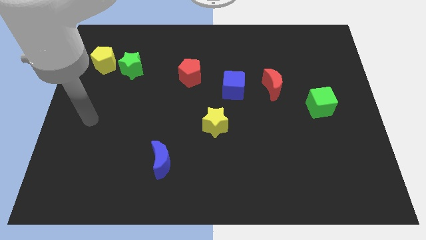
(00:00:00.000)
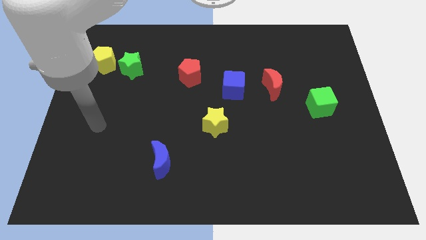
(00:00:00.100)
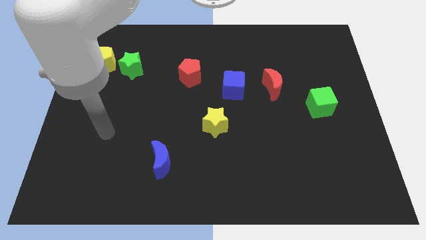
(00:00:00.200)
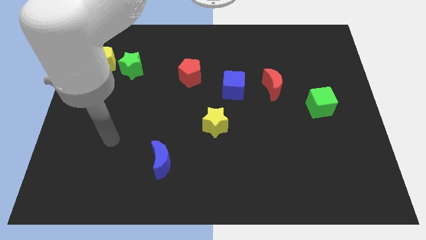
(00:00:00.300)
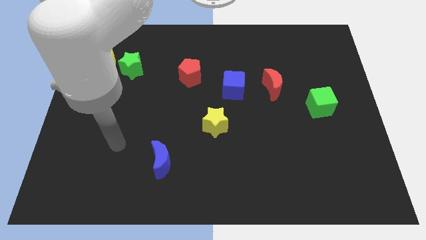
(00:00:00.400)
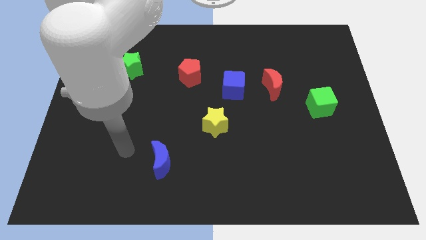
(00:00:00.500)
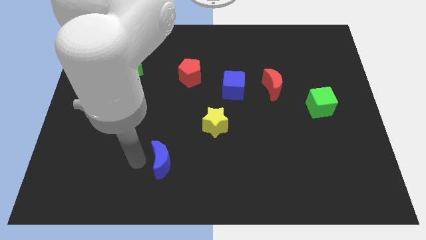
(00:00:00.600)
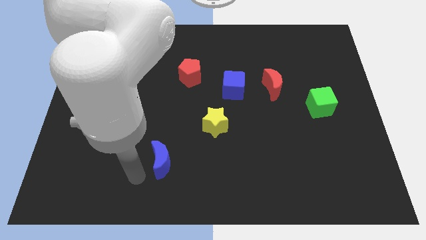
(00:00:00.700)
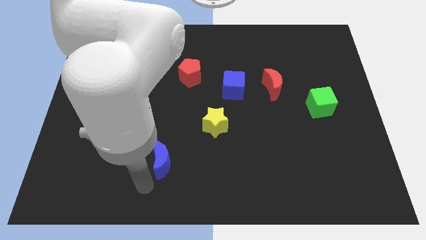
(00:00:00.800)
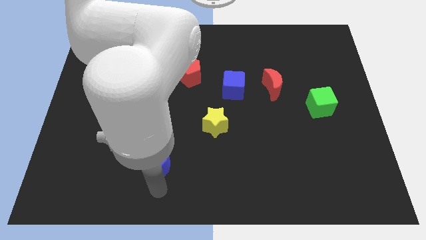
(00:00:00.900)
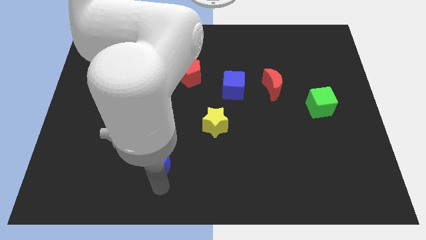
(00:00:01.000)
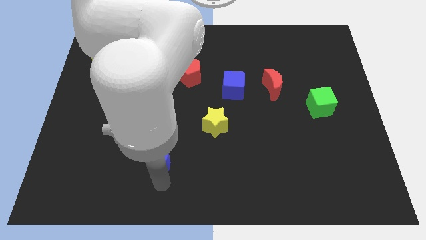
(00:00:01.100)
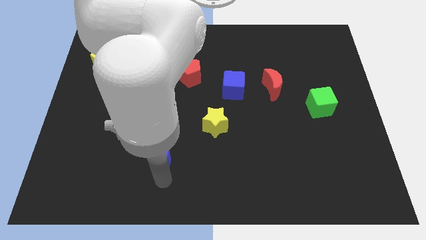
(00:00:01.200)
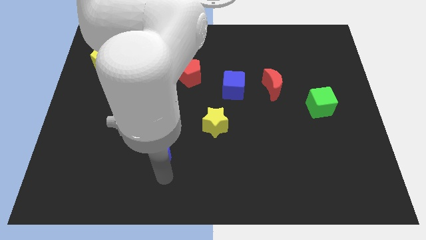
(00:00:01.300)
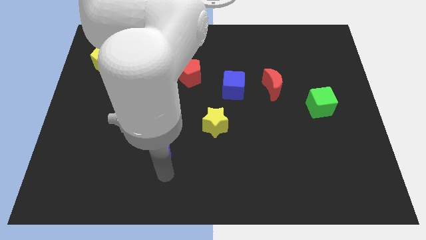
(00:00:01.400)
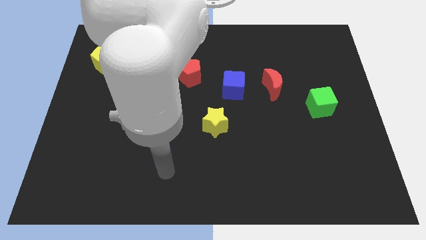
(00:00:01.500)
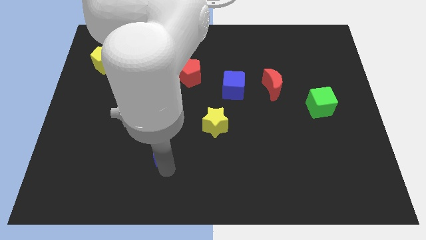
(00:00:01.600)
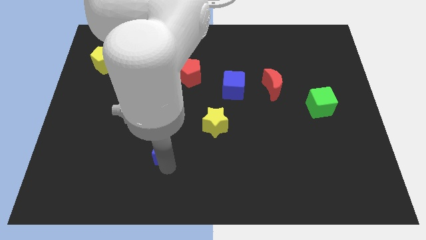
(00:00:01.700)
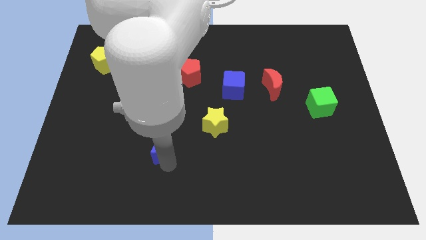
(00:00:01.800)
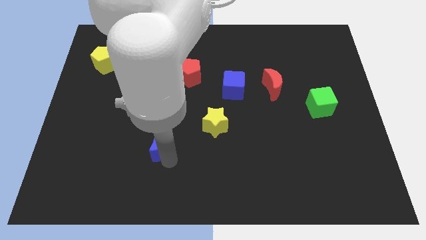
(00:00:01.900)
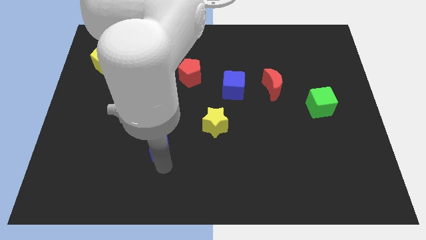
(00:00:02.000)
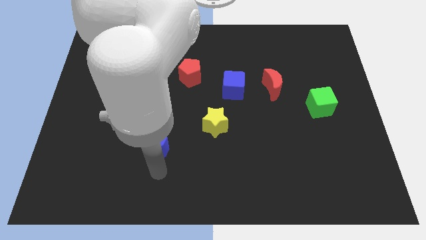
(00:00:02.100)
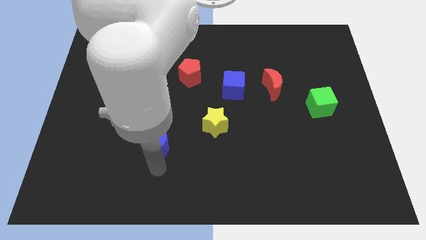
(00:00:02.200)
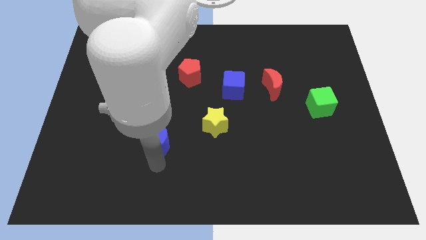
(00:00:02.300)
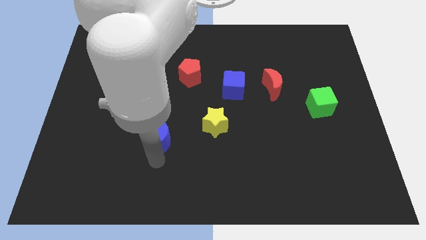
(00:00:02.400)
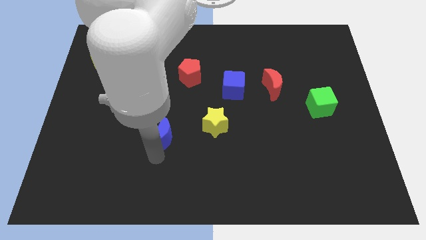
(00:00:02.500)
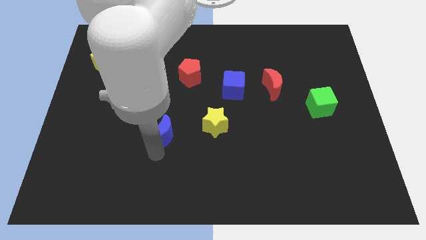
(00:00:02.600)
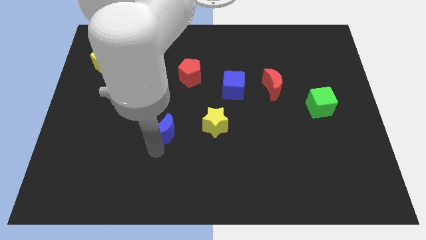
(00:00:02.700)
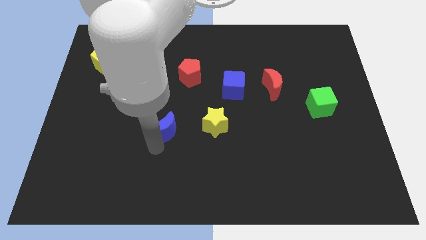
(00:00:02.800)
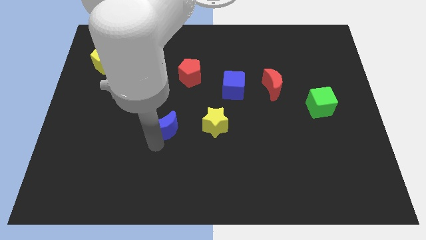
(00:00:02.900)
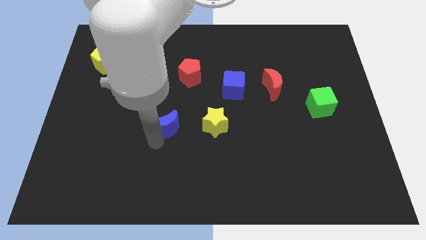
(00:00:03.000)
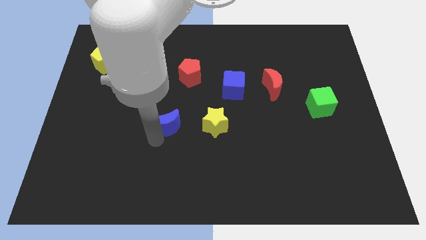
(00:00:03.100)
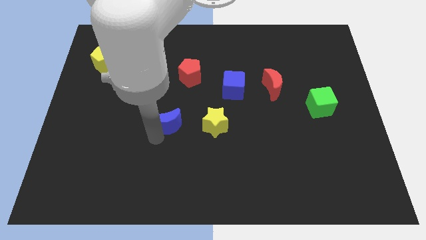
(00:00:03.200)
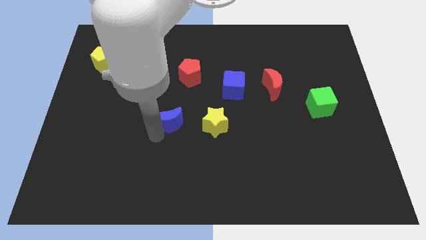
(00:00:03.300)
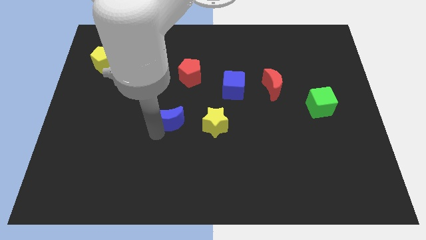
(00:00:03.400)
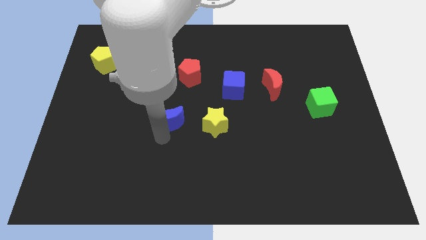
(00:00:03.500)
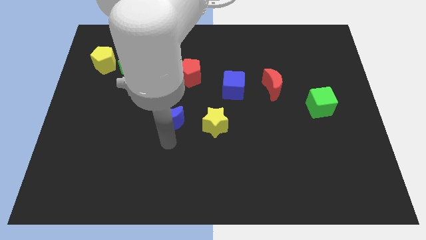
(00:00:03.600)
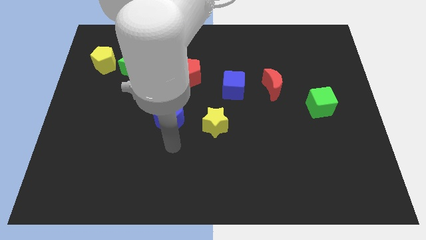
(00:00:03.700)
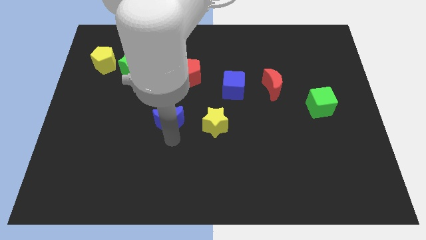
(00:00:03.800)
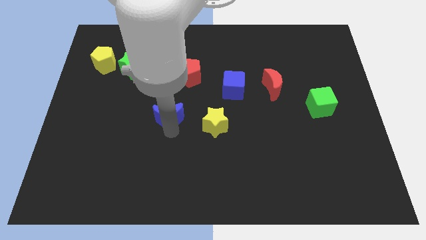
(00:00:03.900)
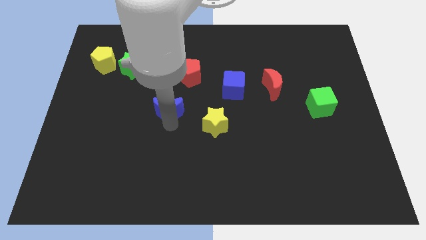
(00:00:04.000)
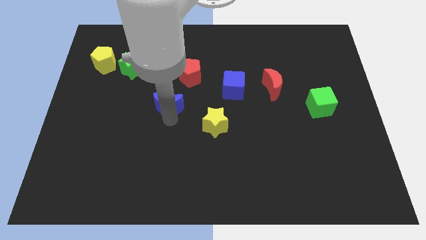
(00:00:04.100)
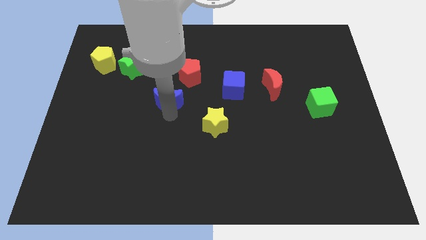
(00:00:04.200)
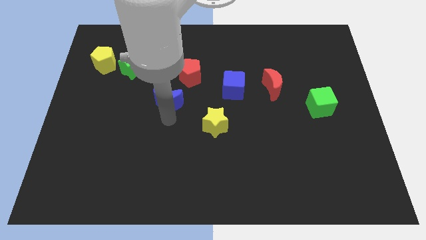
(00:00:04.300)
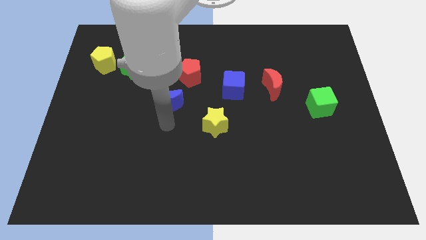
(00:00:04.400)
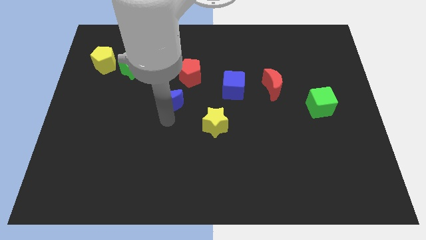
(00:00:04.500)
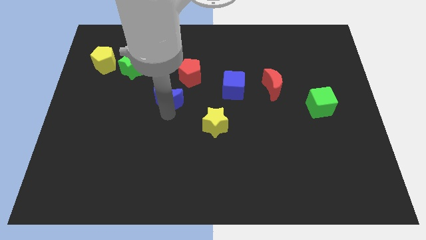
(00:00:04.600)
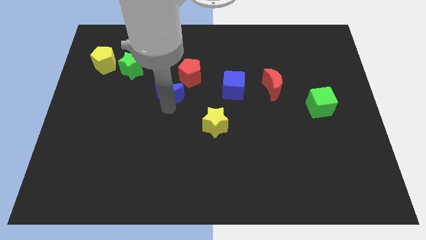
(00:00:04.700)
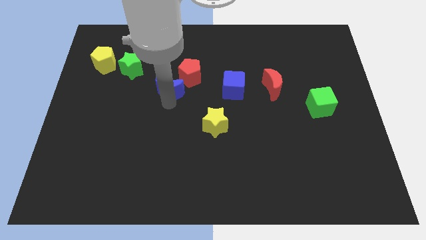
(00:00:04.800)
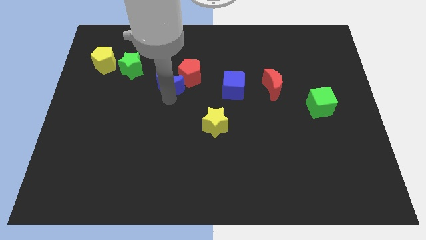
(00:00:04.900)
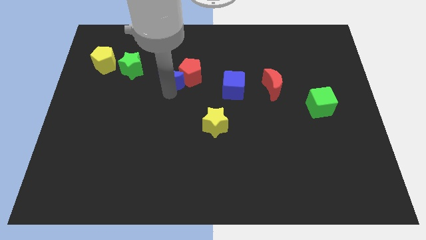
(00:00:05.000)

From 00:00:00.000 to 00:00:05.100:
put the blue moon to the right side of the green star

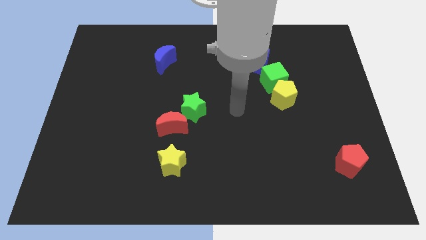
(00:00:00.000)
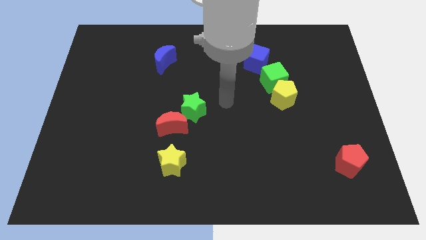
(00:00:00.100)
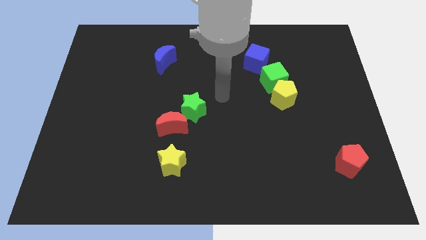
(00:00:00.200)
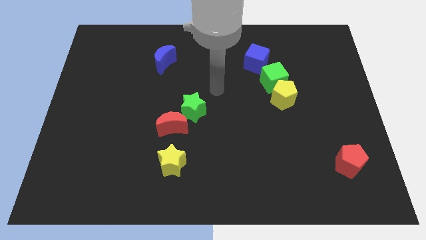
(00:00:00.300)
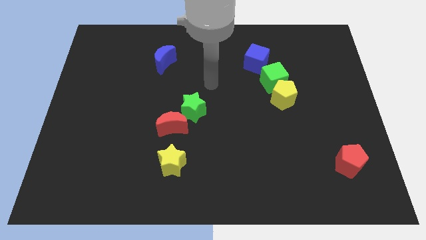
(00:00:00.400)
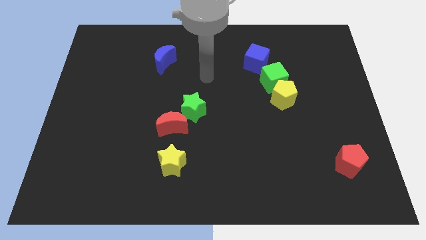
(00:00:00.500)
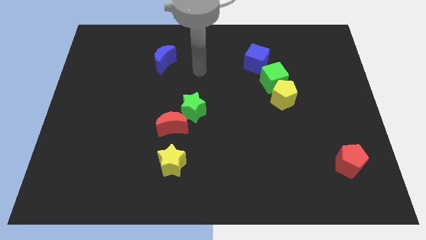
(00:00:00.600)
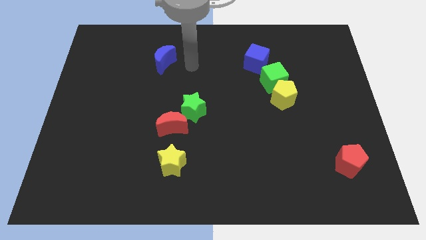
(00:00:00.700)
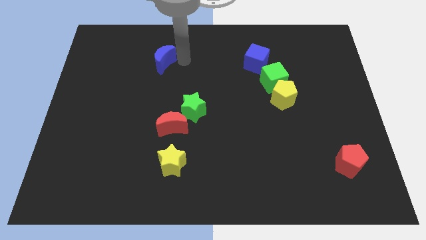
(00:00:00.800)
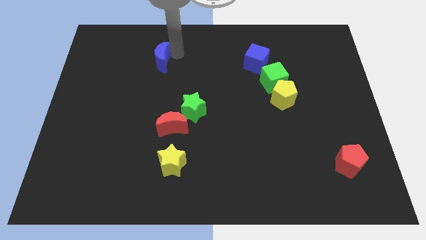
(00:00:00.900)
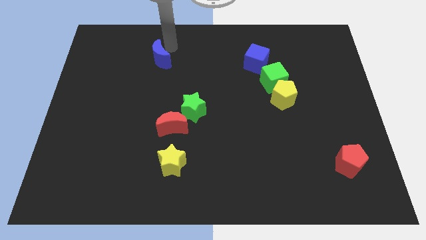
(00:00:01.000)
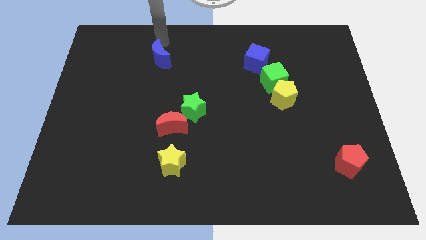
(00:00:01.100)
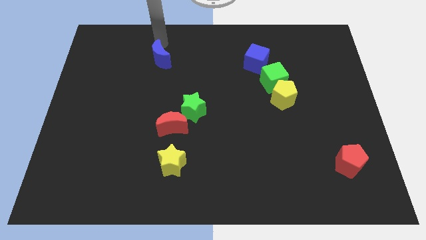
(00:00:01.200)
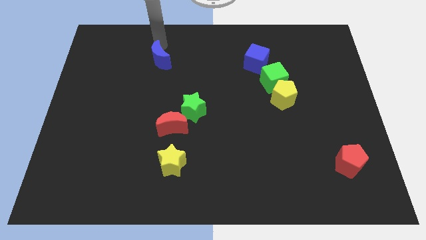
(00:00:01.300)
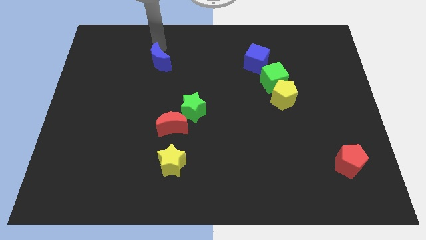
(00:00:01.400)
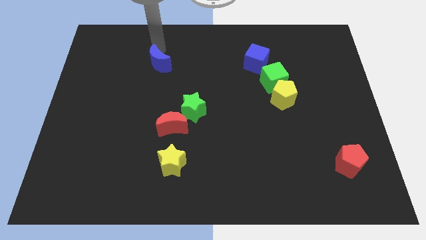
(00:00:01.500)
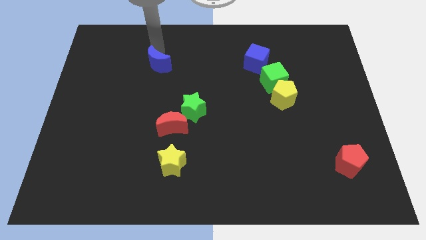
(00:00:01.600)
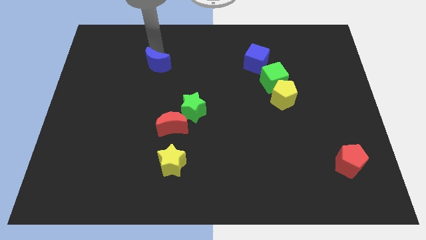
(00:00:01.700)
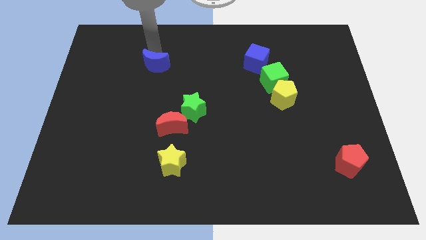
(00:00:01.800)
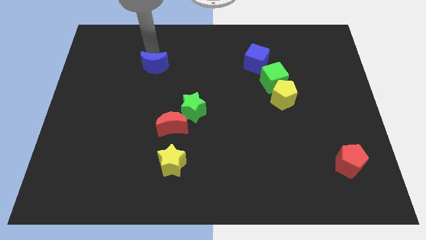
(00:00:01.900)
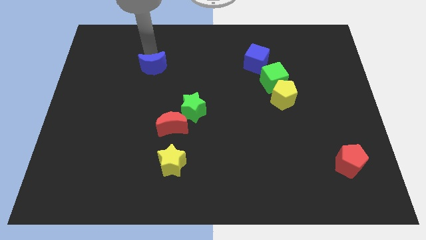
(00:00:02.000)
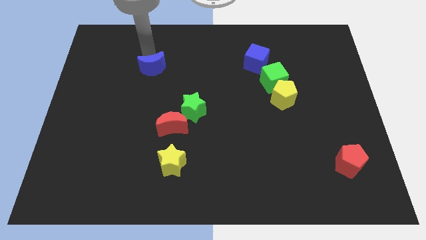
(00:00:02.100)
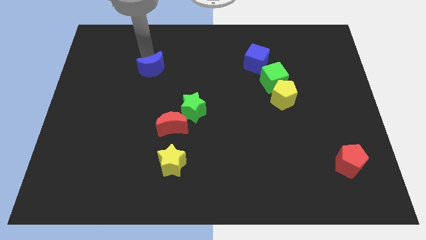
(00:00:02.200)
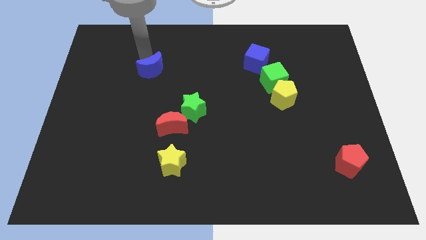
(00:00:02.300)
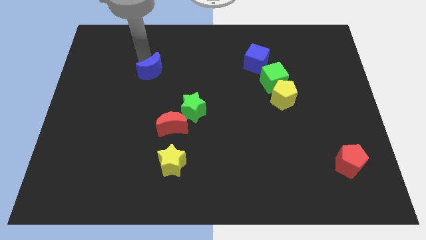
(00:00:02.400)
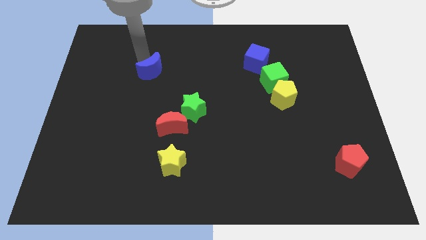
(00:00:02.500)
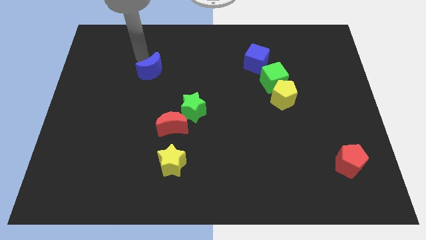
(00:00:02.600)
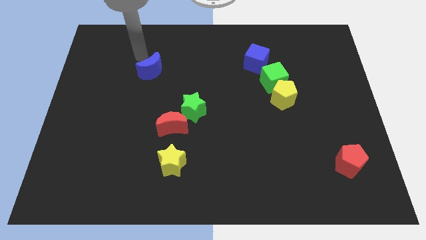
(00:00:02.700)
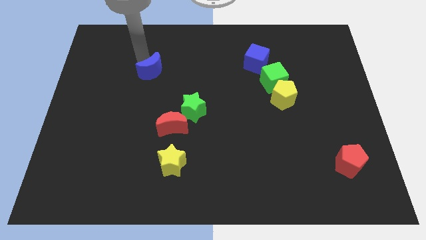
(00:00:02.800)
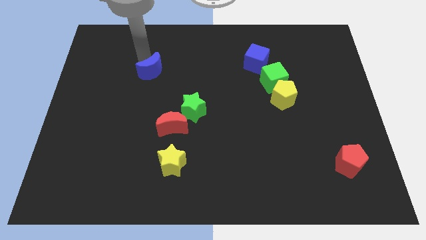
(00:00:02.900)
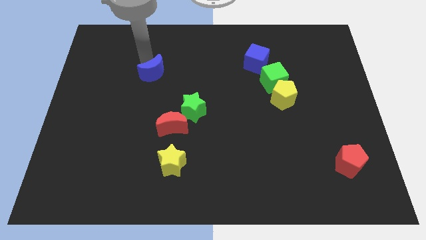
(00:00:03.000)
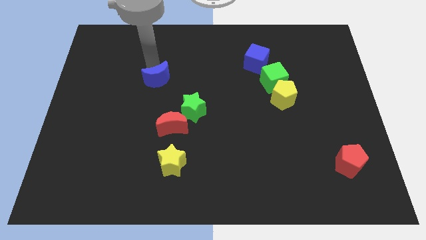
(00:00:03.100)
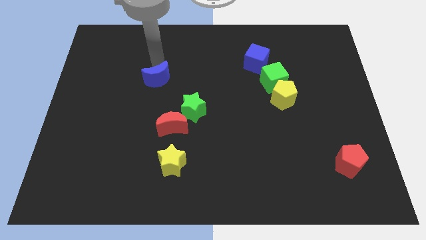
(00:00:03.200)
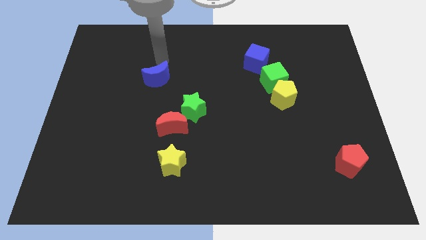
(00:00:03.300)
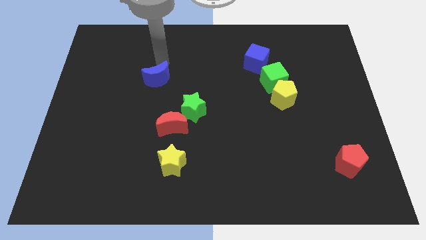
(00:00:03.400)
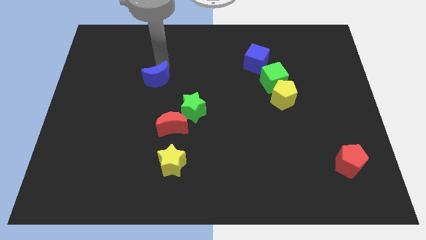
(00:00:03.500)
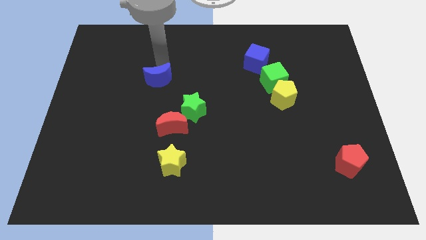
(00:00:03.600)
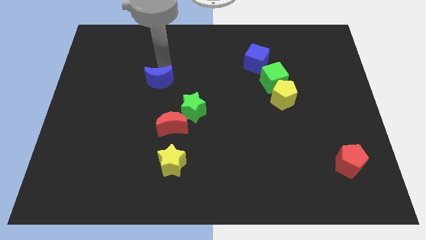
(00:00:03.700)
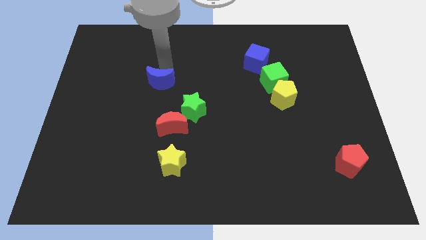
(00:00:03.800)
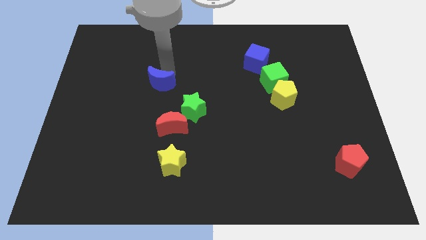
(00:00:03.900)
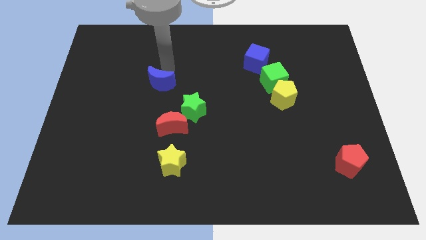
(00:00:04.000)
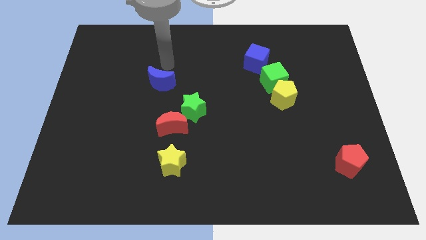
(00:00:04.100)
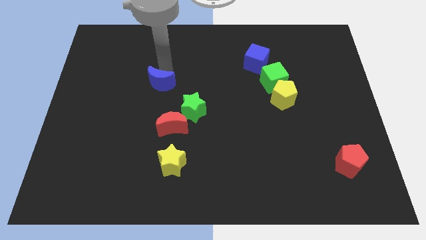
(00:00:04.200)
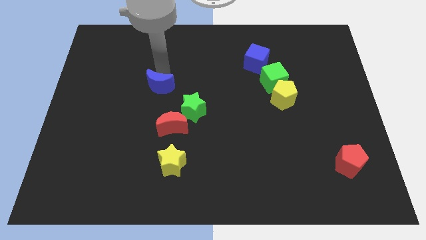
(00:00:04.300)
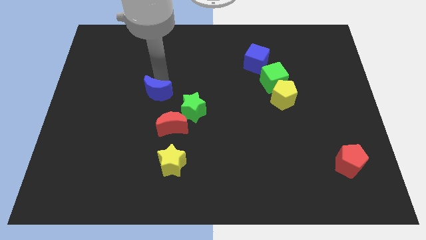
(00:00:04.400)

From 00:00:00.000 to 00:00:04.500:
push the blue moon to the top left of the red moon
